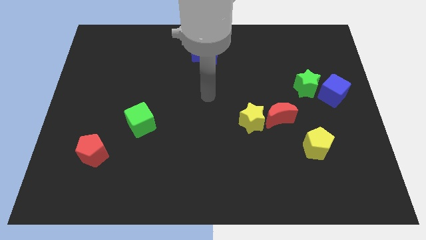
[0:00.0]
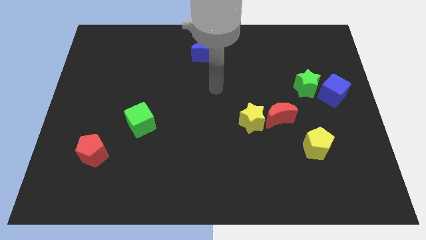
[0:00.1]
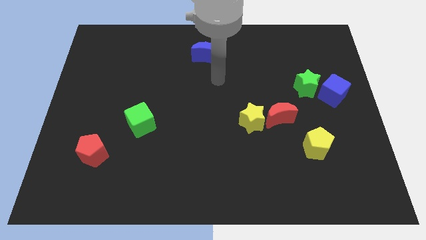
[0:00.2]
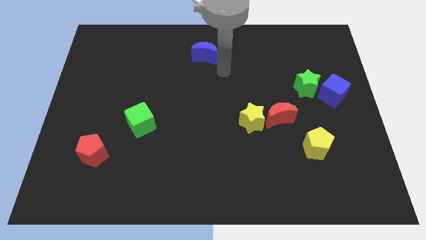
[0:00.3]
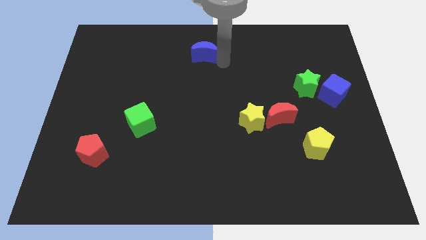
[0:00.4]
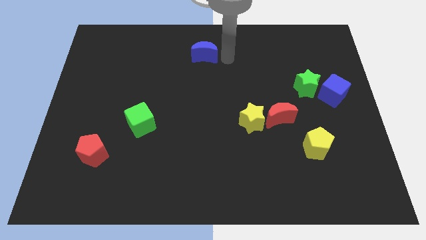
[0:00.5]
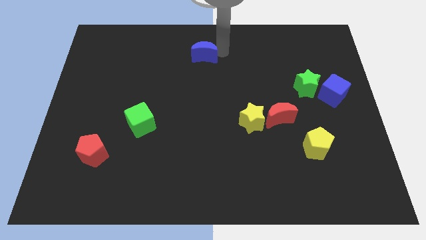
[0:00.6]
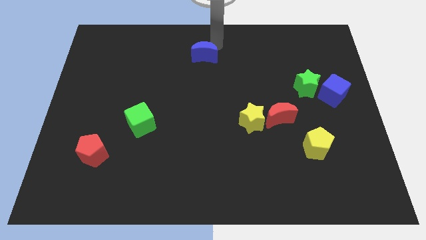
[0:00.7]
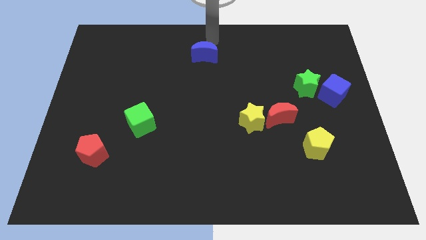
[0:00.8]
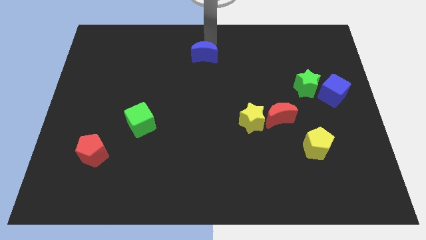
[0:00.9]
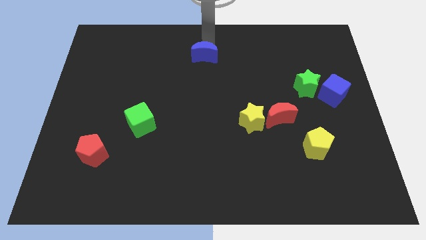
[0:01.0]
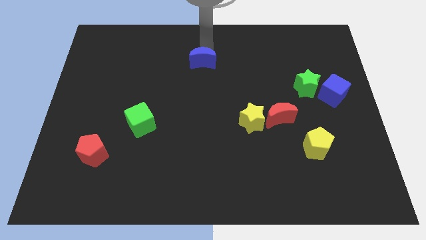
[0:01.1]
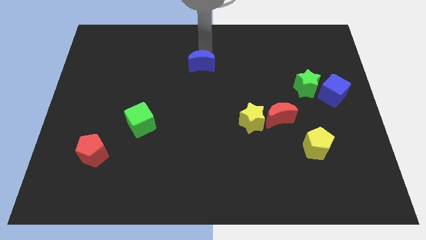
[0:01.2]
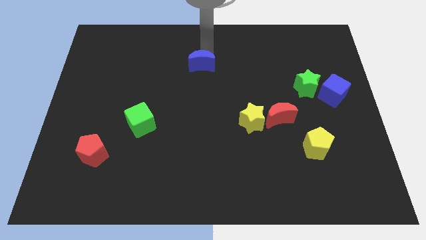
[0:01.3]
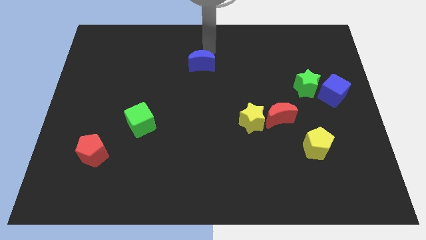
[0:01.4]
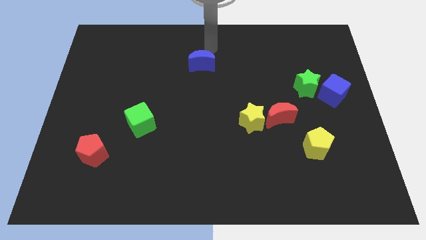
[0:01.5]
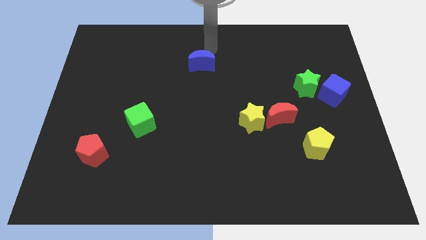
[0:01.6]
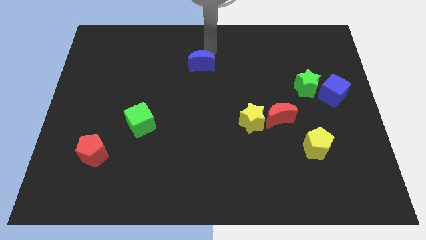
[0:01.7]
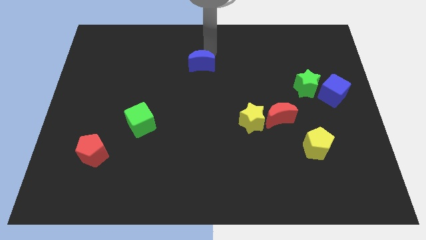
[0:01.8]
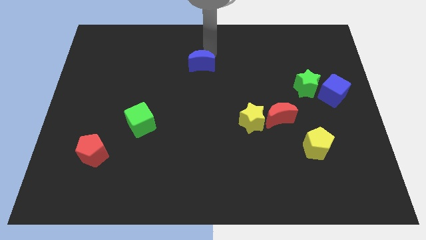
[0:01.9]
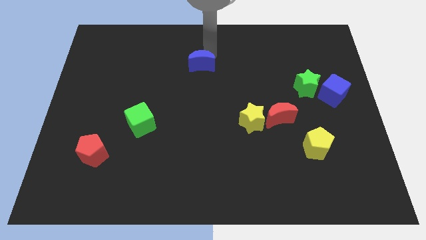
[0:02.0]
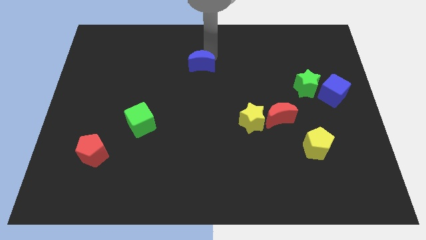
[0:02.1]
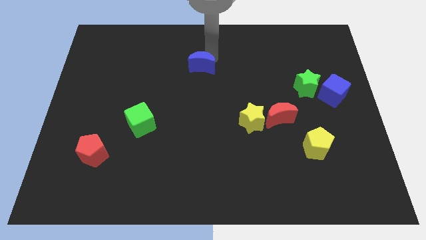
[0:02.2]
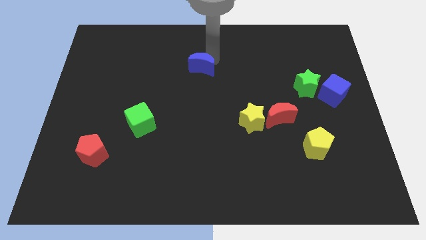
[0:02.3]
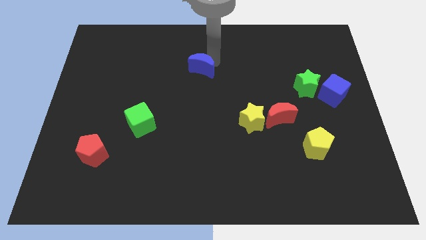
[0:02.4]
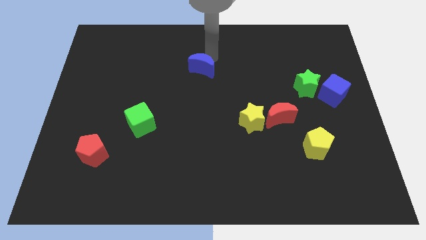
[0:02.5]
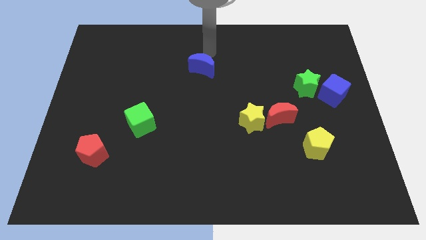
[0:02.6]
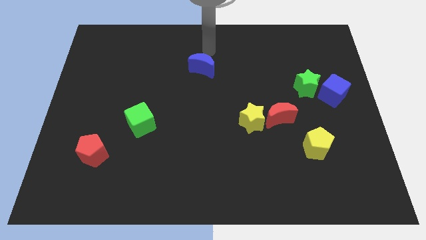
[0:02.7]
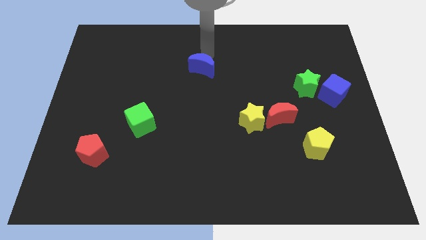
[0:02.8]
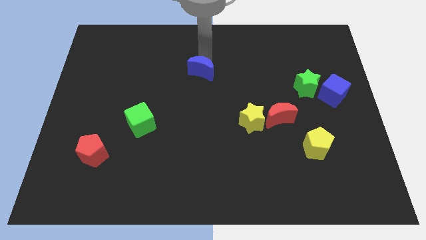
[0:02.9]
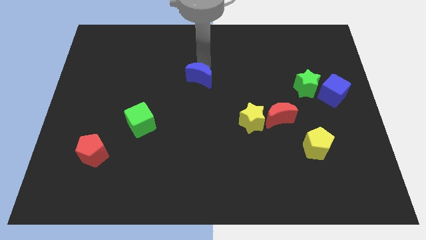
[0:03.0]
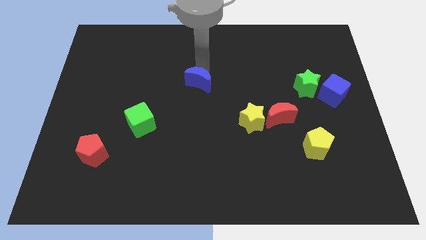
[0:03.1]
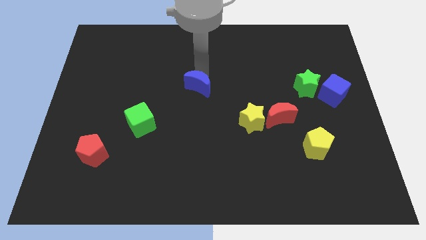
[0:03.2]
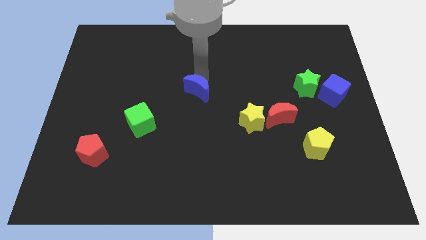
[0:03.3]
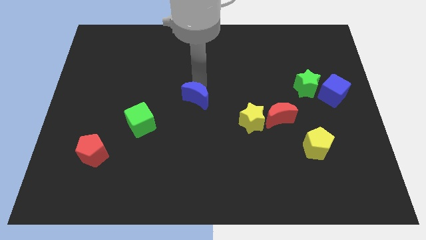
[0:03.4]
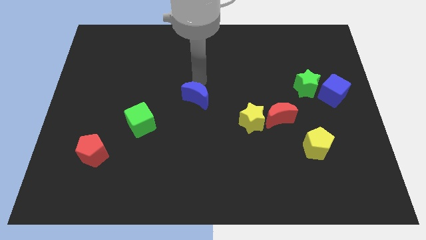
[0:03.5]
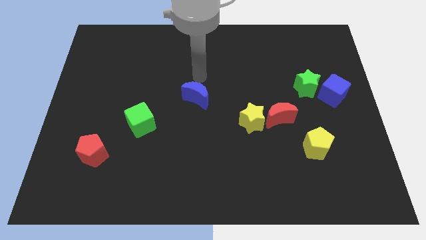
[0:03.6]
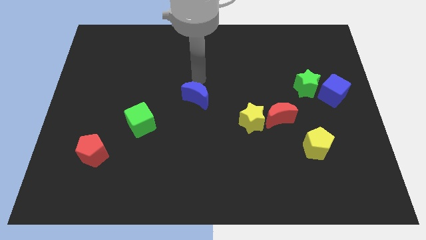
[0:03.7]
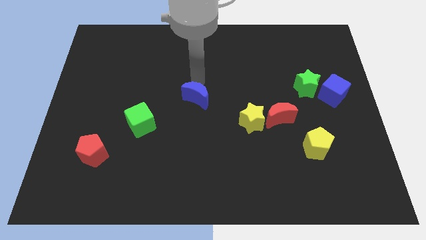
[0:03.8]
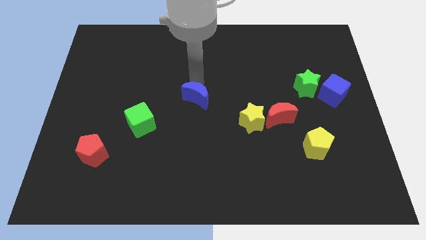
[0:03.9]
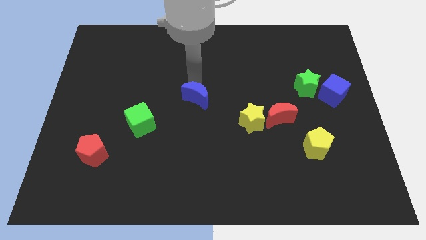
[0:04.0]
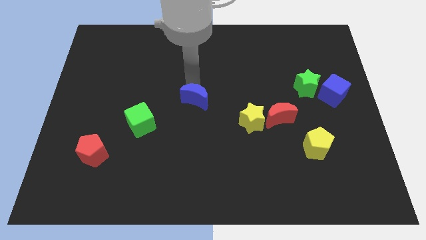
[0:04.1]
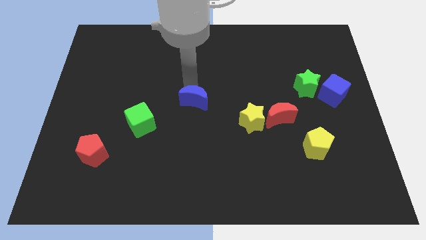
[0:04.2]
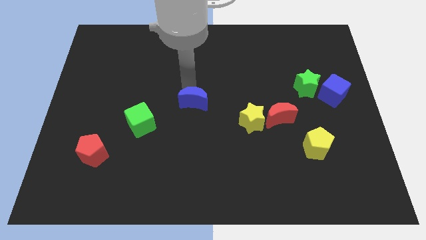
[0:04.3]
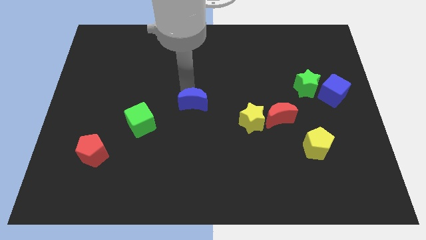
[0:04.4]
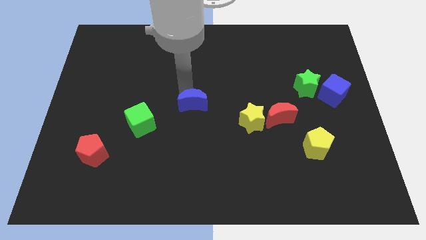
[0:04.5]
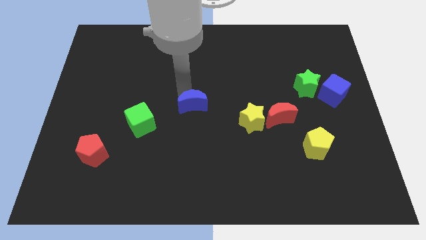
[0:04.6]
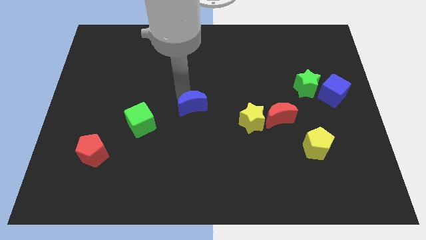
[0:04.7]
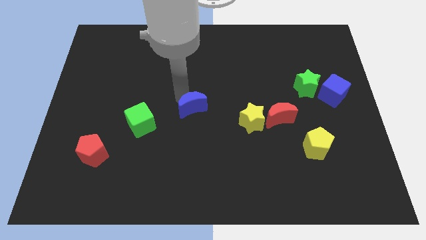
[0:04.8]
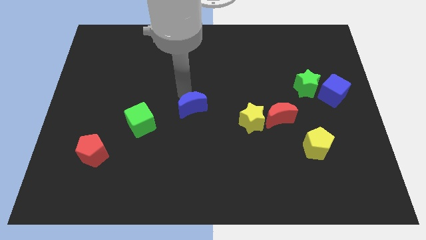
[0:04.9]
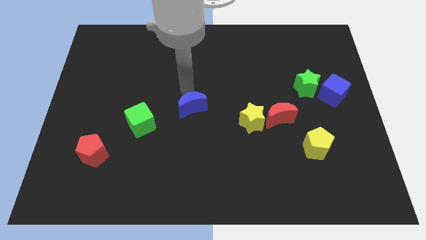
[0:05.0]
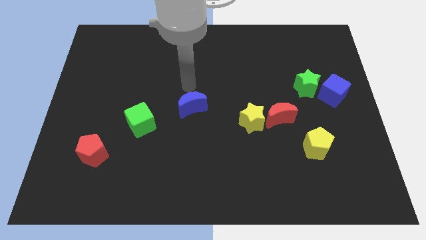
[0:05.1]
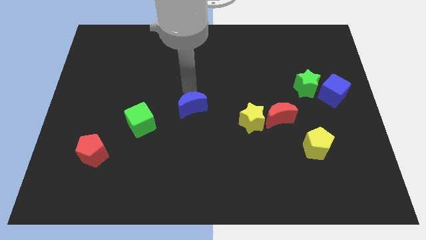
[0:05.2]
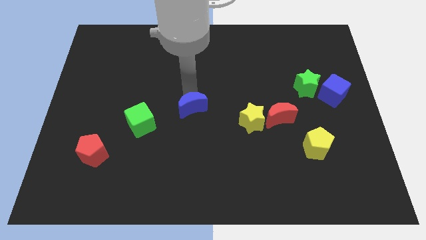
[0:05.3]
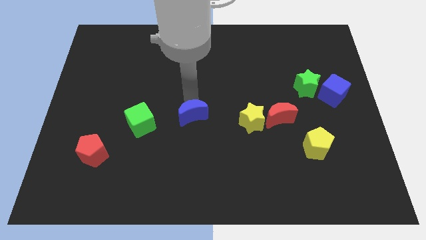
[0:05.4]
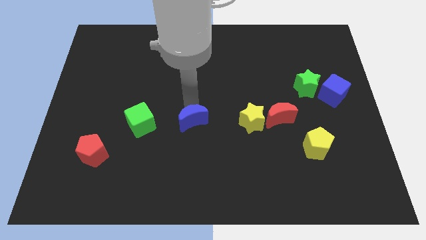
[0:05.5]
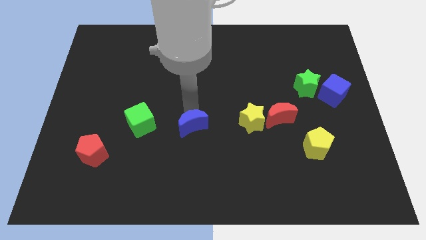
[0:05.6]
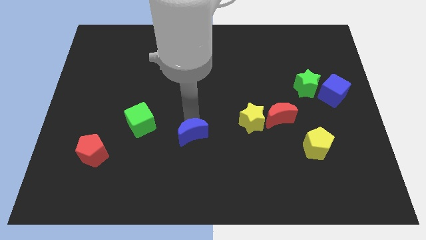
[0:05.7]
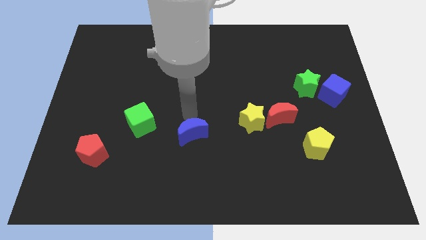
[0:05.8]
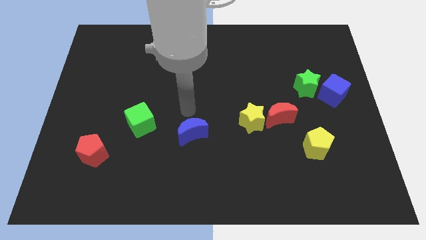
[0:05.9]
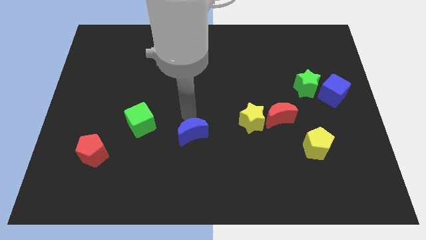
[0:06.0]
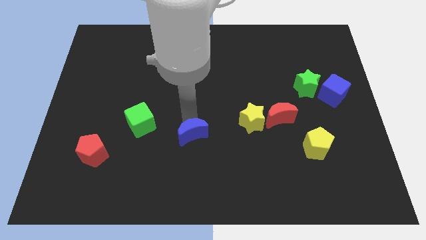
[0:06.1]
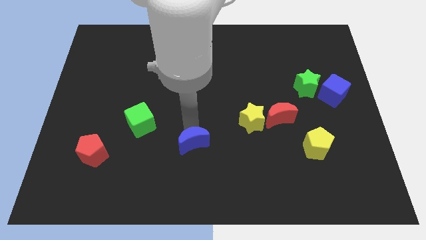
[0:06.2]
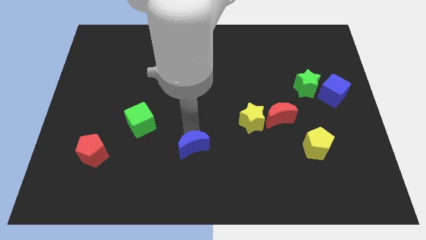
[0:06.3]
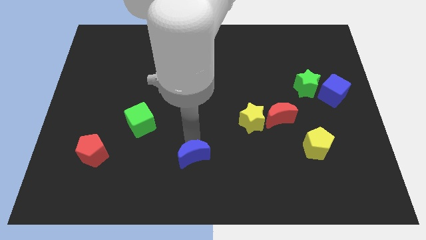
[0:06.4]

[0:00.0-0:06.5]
push the blue moon to the bottom side

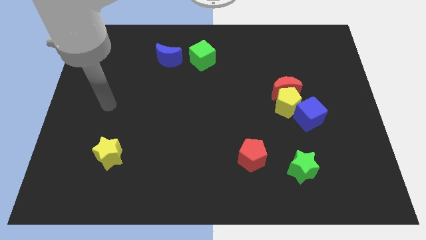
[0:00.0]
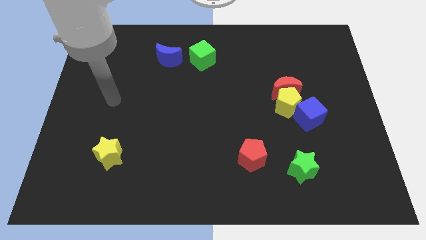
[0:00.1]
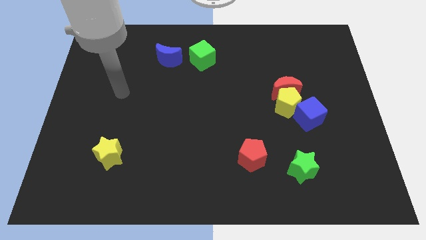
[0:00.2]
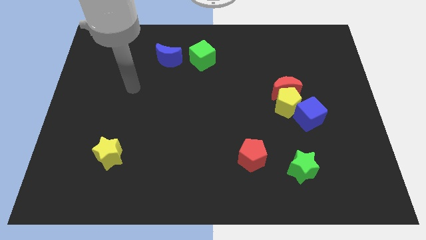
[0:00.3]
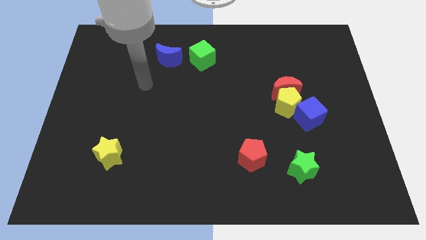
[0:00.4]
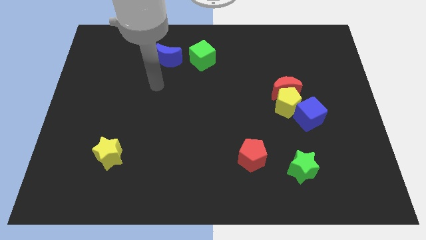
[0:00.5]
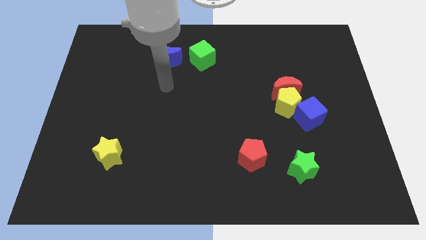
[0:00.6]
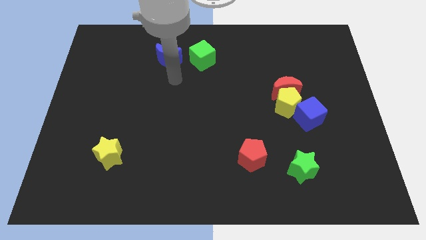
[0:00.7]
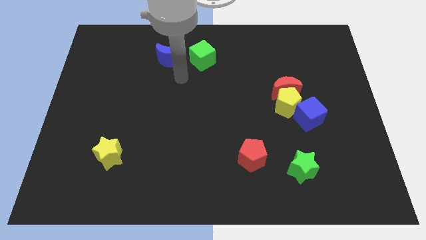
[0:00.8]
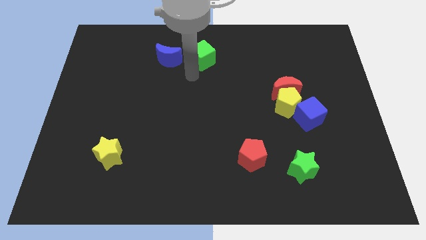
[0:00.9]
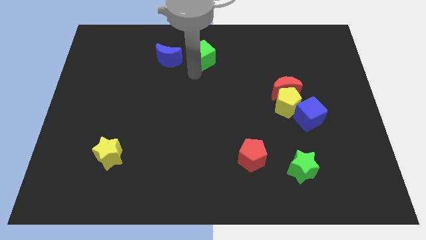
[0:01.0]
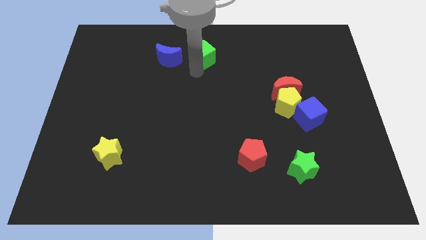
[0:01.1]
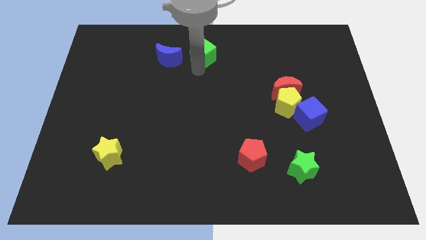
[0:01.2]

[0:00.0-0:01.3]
put the green cube to the towards your base
